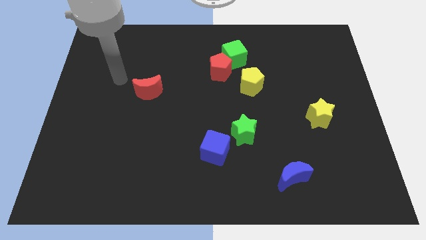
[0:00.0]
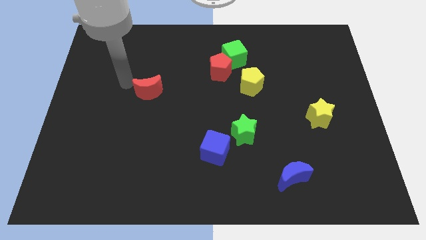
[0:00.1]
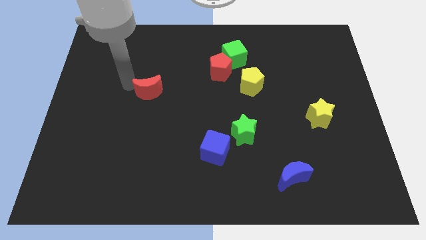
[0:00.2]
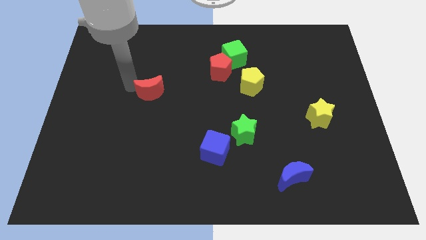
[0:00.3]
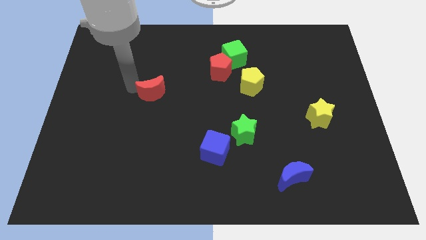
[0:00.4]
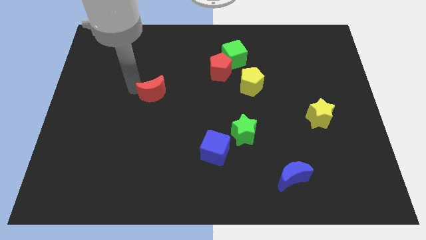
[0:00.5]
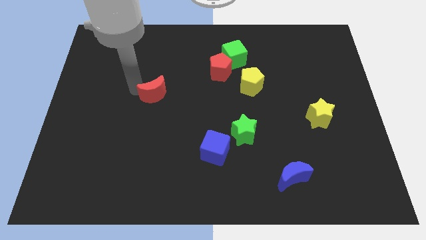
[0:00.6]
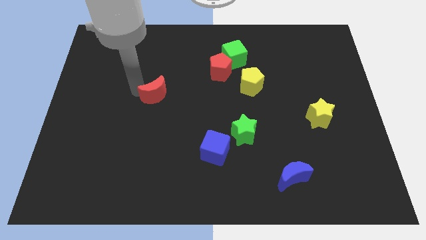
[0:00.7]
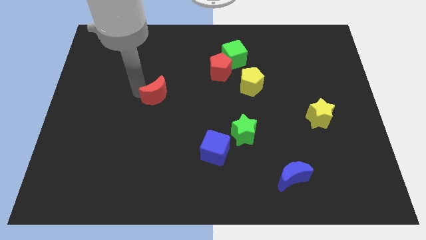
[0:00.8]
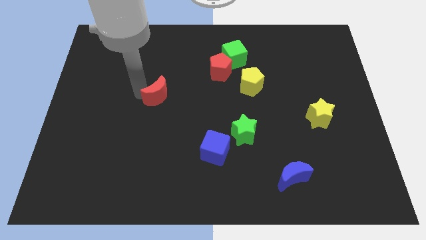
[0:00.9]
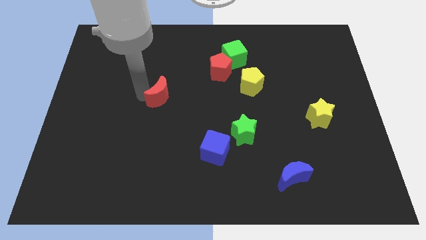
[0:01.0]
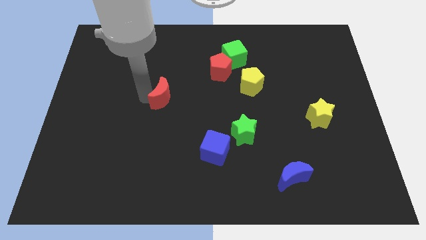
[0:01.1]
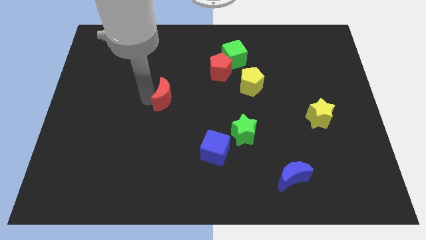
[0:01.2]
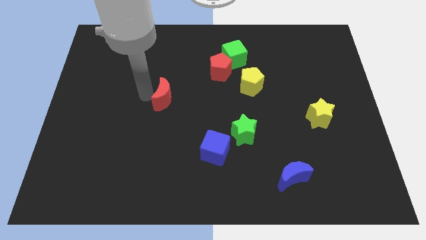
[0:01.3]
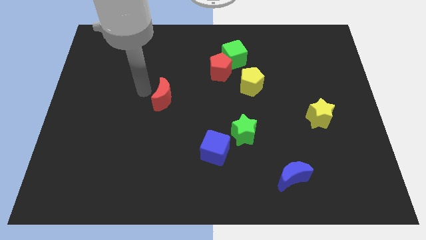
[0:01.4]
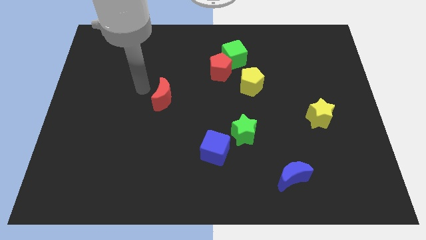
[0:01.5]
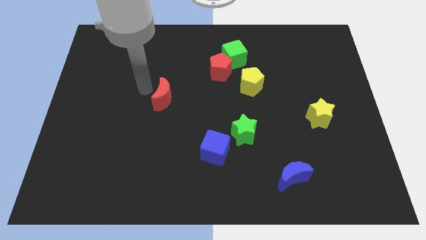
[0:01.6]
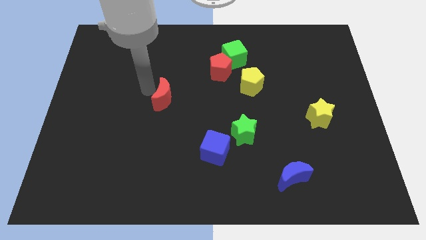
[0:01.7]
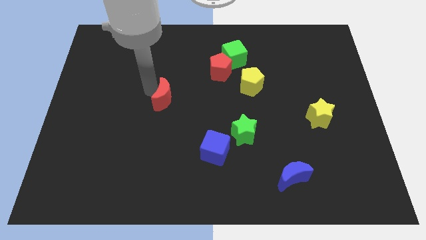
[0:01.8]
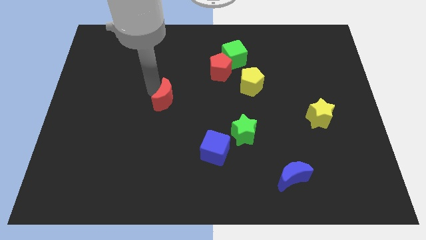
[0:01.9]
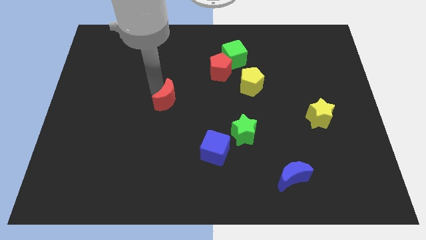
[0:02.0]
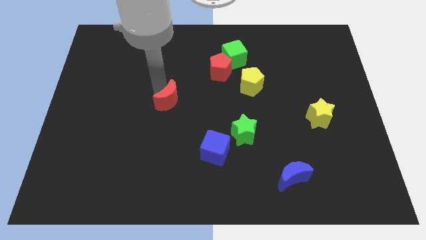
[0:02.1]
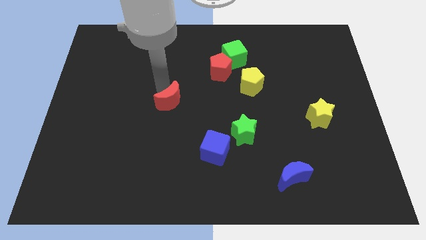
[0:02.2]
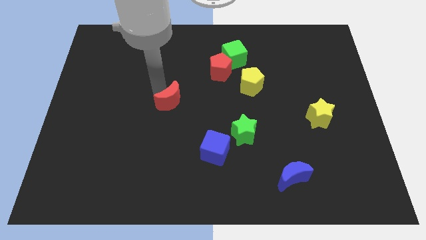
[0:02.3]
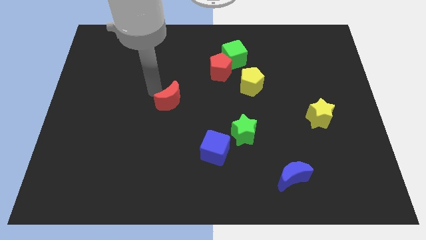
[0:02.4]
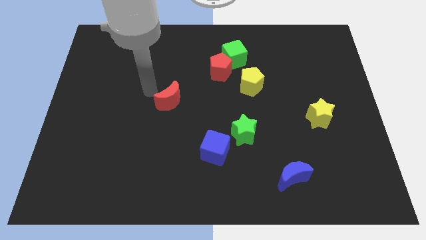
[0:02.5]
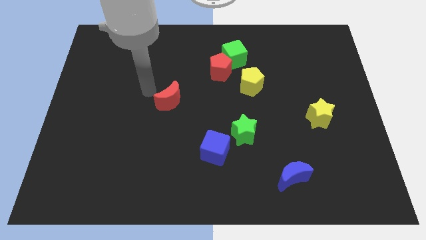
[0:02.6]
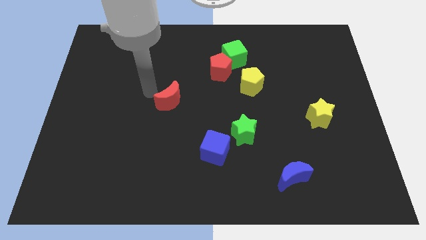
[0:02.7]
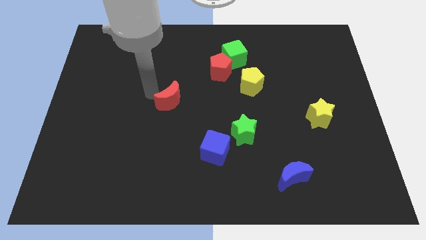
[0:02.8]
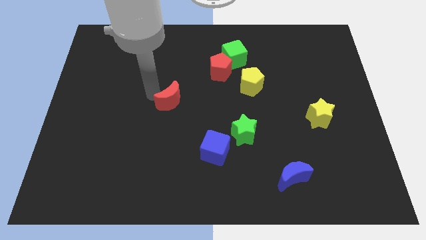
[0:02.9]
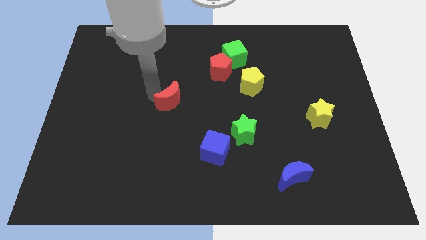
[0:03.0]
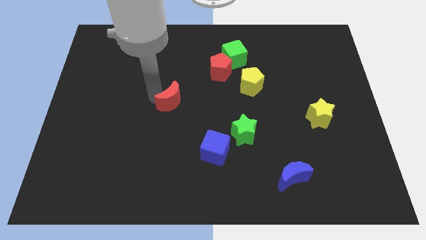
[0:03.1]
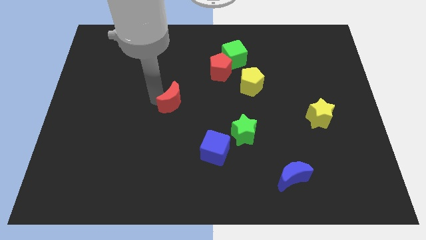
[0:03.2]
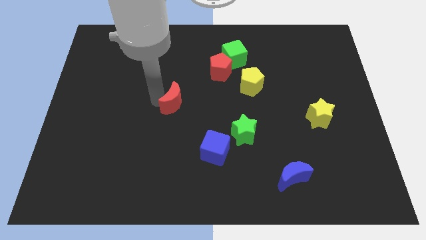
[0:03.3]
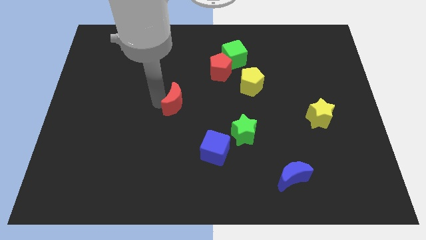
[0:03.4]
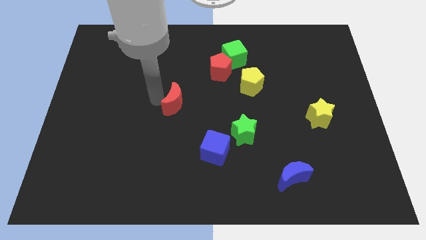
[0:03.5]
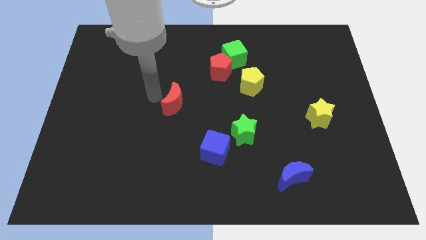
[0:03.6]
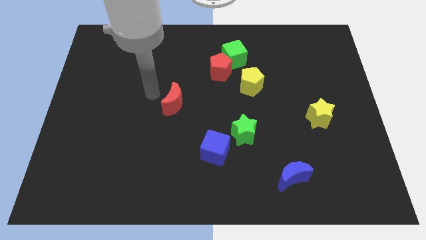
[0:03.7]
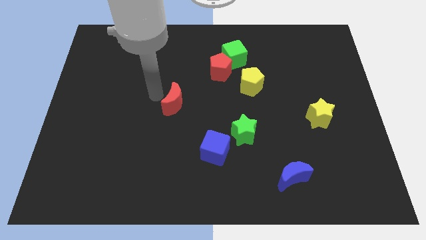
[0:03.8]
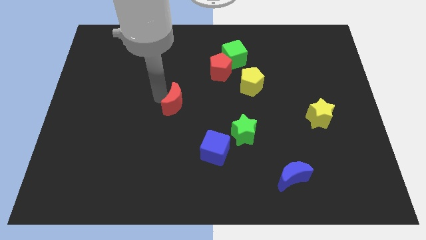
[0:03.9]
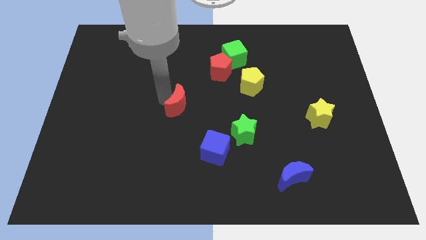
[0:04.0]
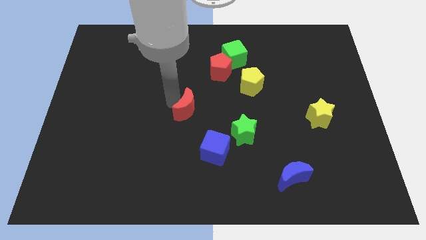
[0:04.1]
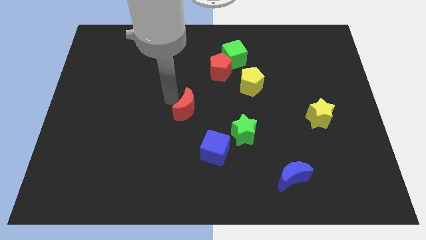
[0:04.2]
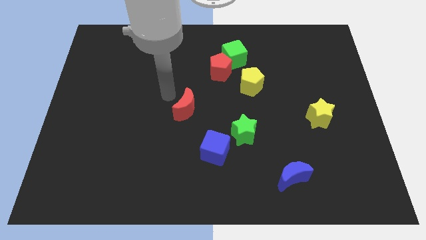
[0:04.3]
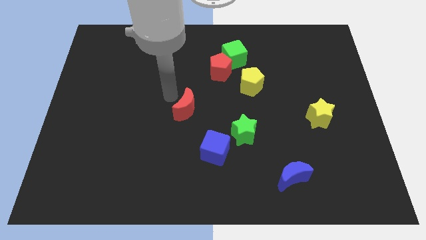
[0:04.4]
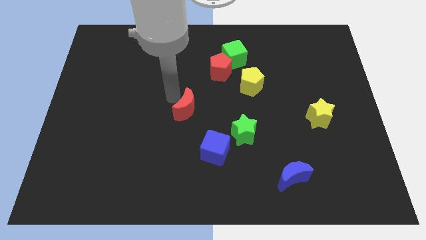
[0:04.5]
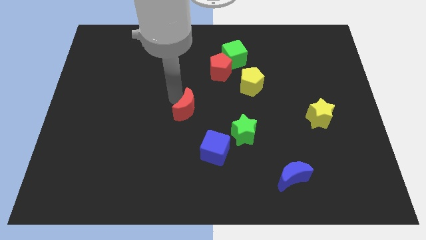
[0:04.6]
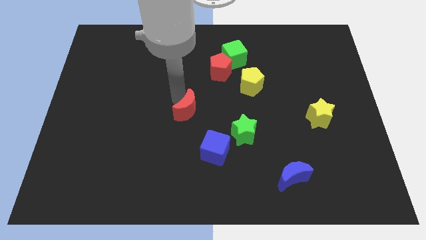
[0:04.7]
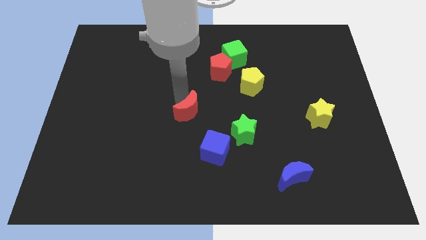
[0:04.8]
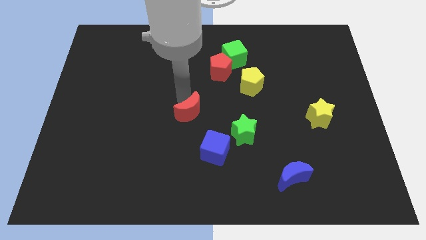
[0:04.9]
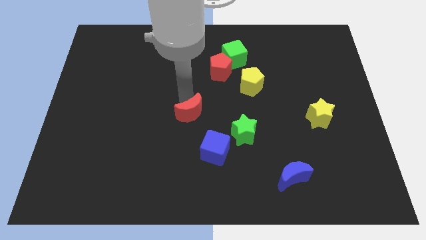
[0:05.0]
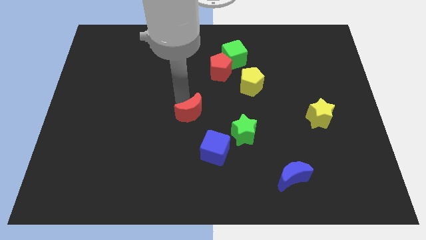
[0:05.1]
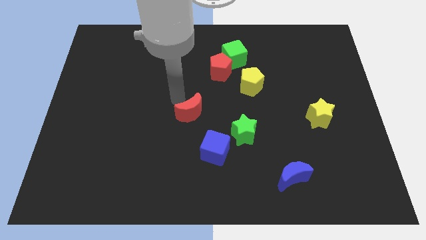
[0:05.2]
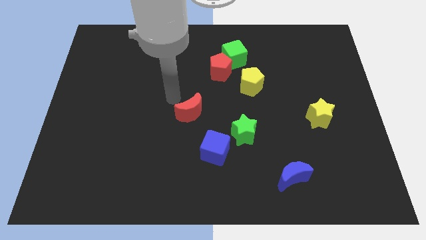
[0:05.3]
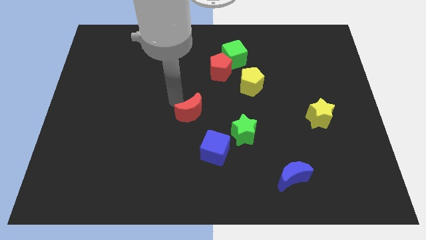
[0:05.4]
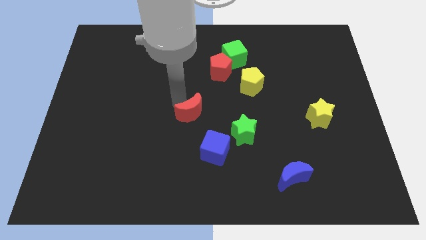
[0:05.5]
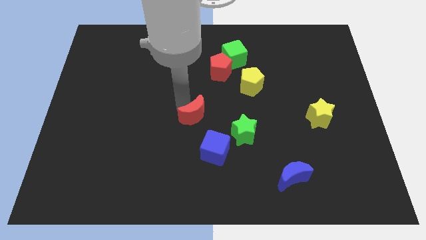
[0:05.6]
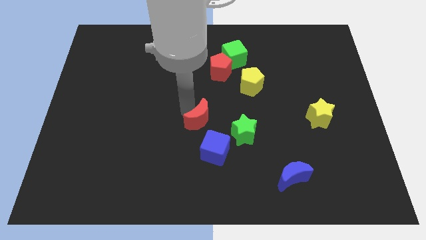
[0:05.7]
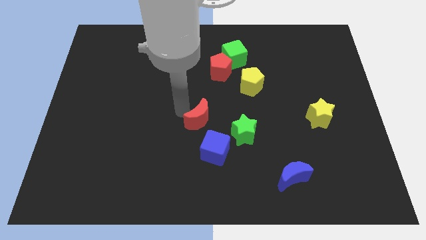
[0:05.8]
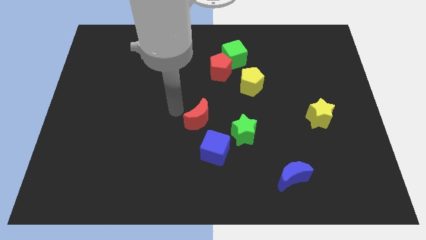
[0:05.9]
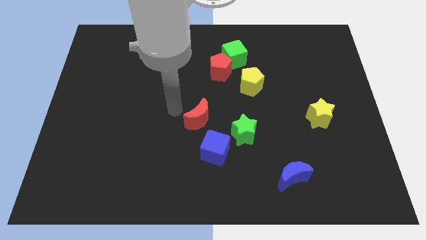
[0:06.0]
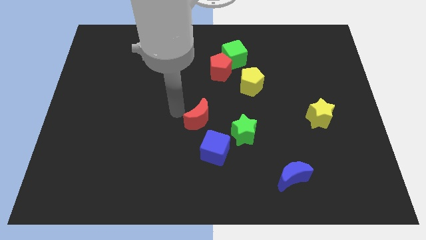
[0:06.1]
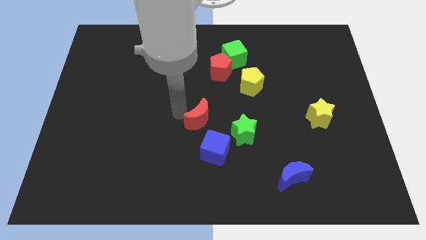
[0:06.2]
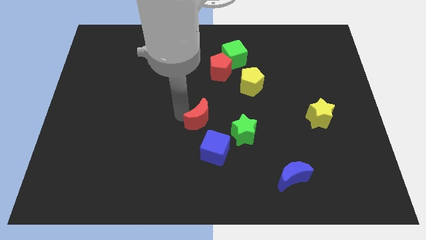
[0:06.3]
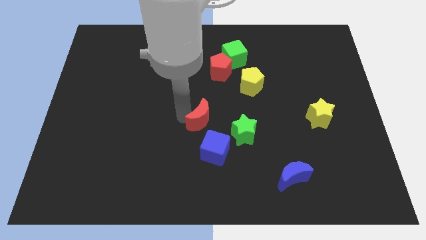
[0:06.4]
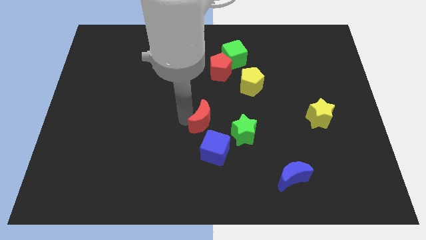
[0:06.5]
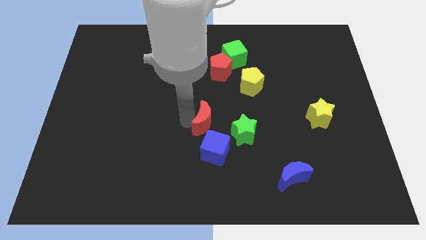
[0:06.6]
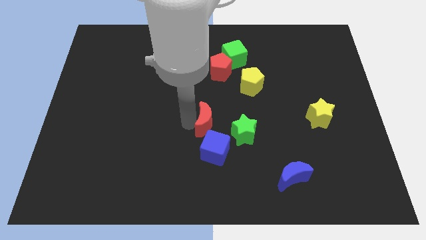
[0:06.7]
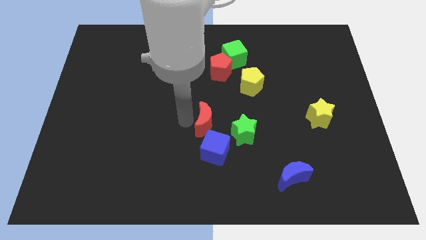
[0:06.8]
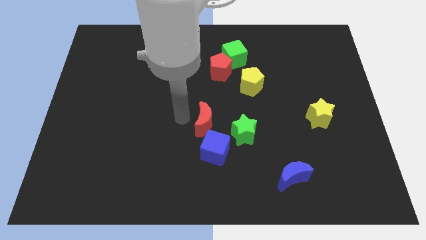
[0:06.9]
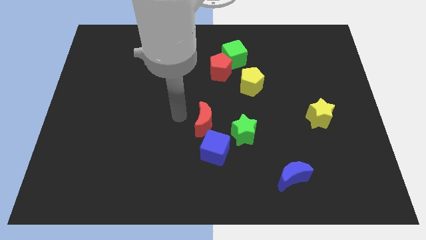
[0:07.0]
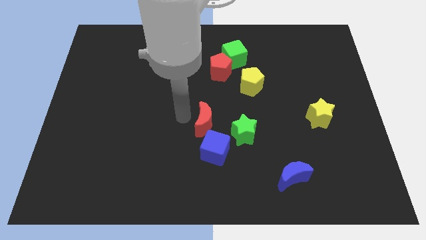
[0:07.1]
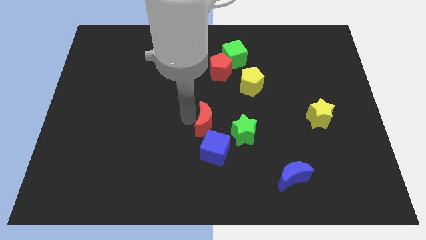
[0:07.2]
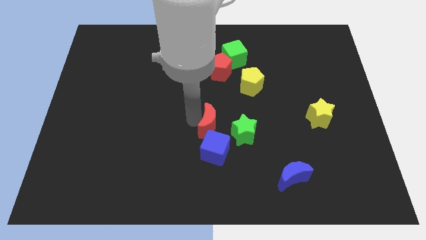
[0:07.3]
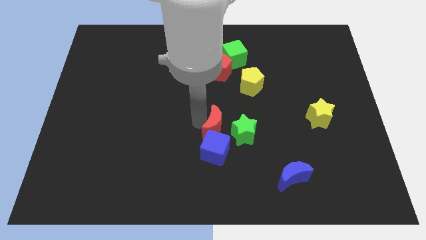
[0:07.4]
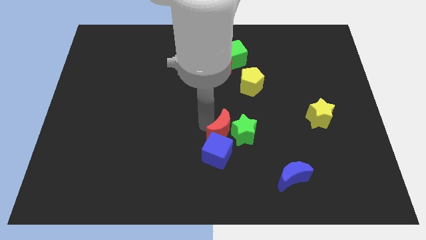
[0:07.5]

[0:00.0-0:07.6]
put the red moon close to the green star

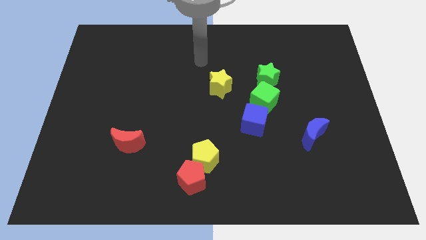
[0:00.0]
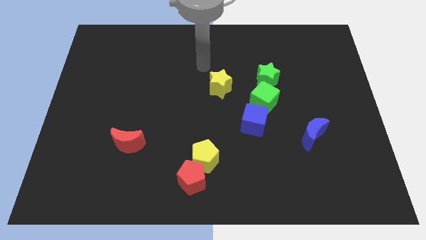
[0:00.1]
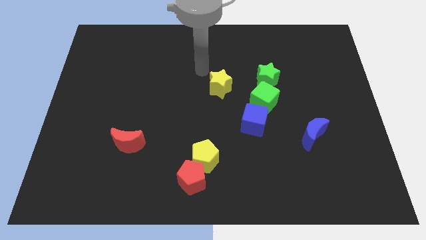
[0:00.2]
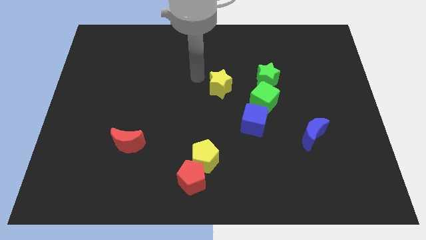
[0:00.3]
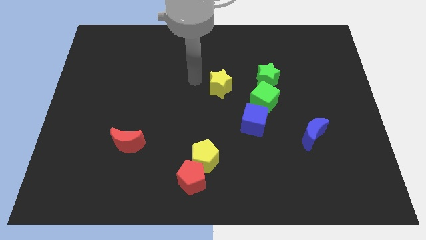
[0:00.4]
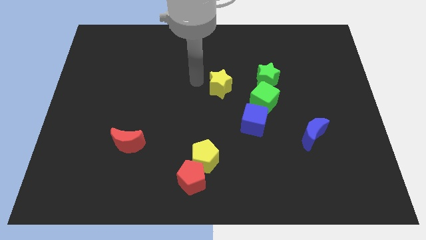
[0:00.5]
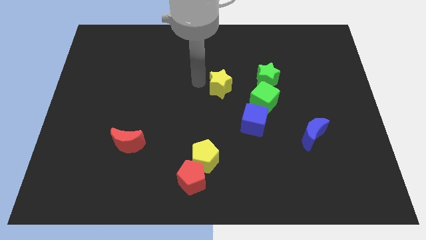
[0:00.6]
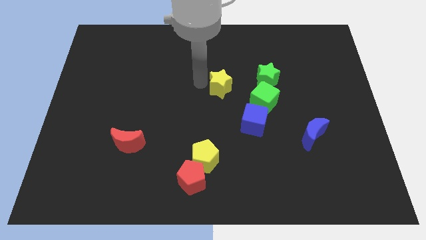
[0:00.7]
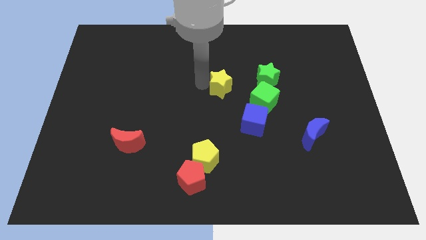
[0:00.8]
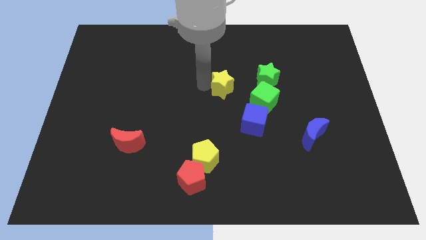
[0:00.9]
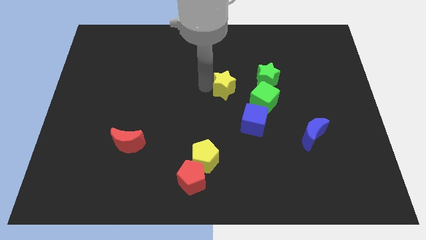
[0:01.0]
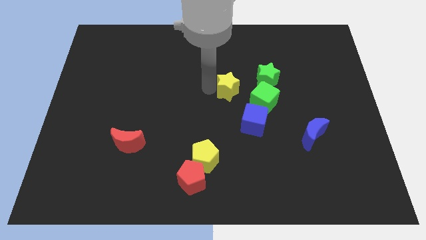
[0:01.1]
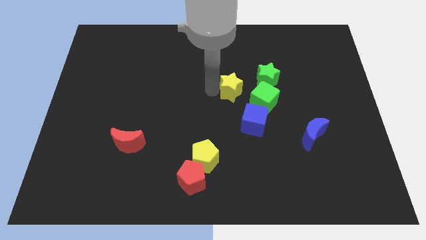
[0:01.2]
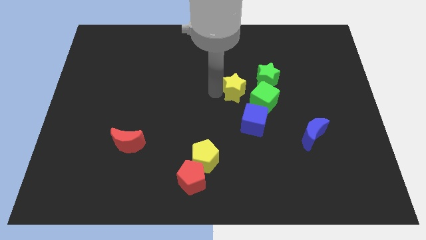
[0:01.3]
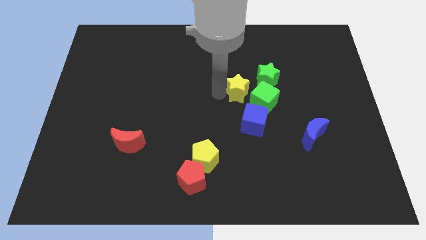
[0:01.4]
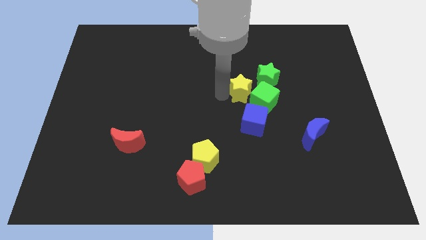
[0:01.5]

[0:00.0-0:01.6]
slide the yellow star to the green cube
